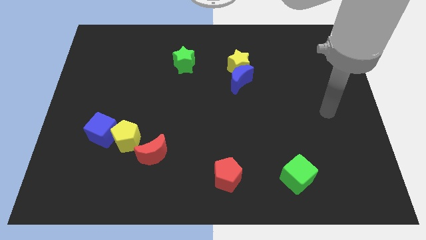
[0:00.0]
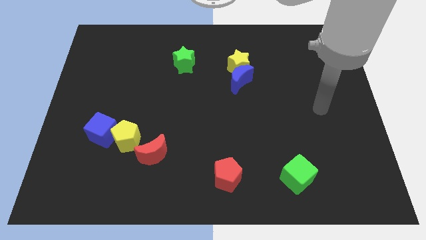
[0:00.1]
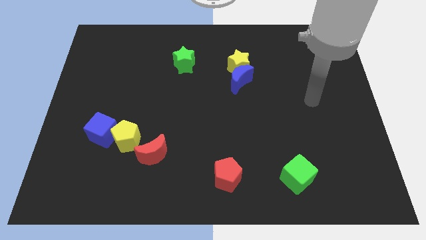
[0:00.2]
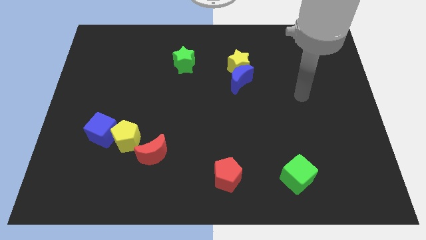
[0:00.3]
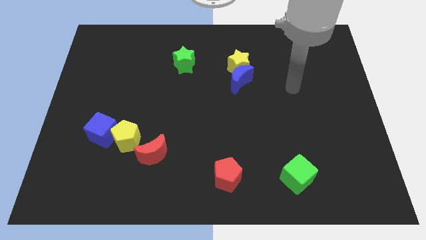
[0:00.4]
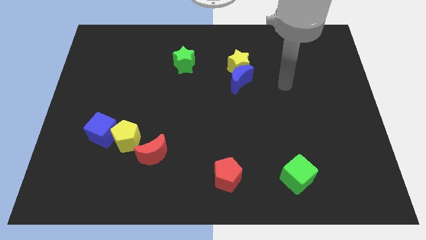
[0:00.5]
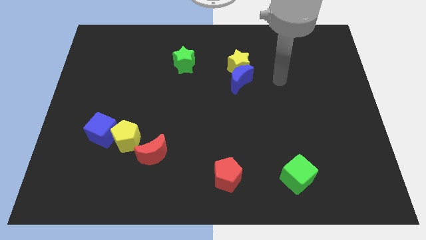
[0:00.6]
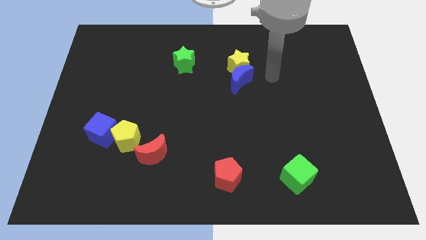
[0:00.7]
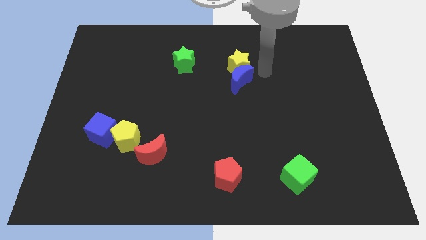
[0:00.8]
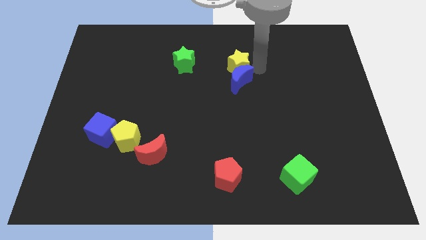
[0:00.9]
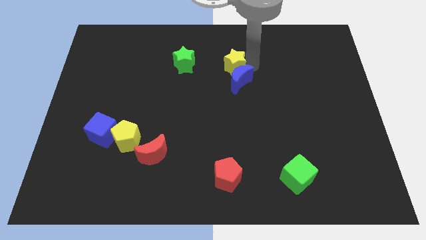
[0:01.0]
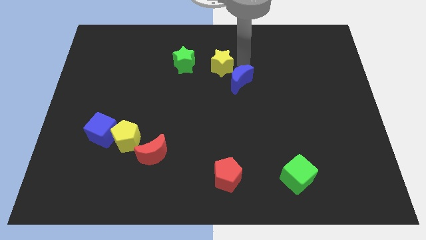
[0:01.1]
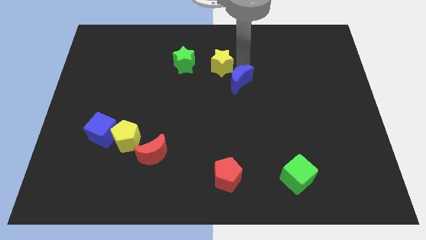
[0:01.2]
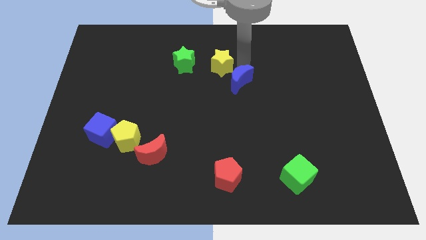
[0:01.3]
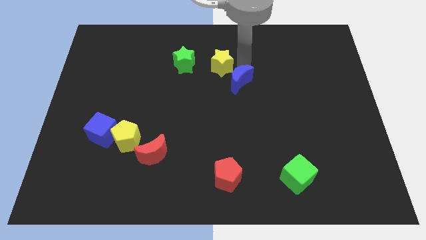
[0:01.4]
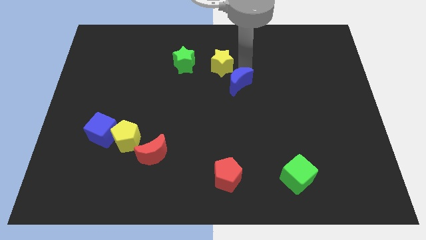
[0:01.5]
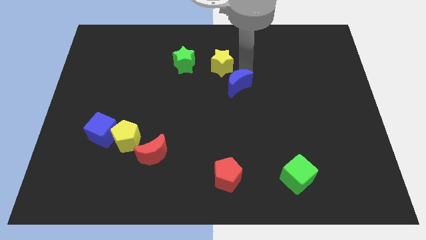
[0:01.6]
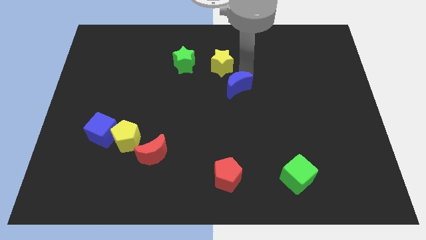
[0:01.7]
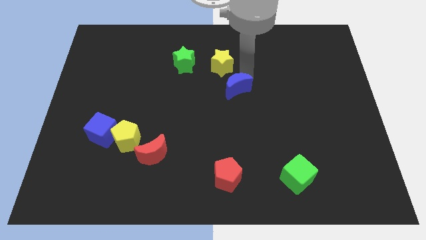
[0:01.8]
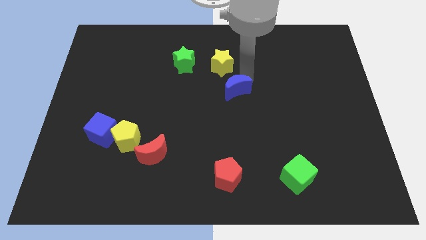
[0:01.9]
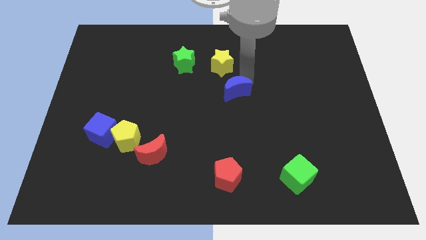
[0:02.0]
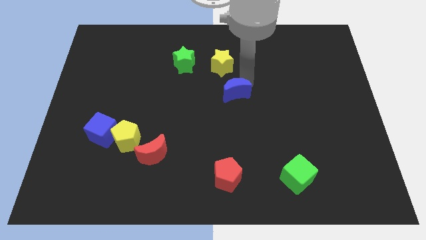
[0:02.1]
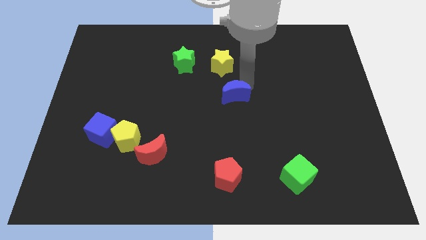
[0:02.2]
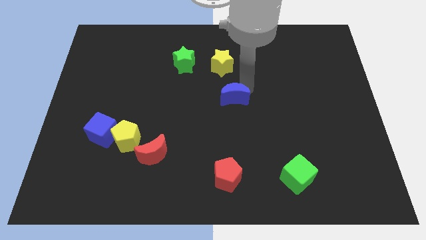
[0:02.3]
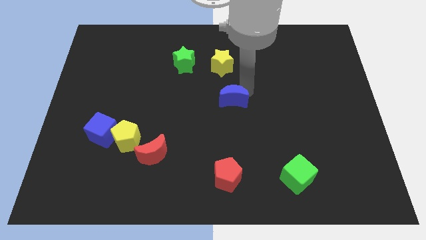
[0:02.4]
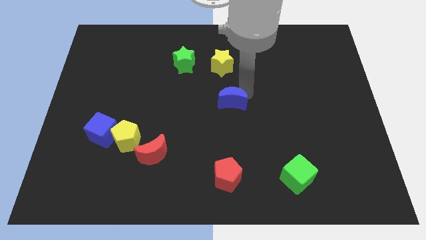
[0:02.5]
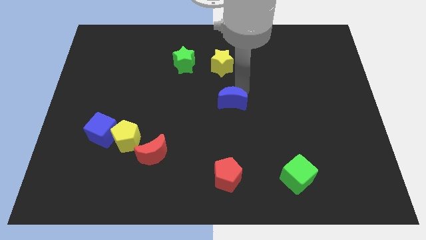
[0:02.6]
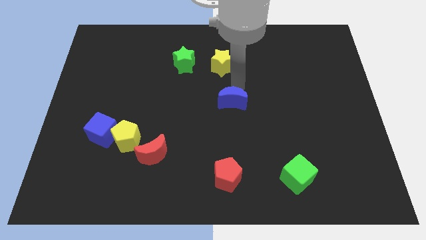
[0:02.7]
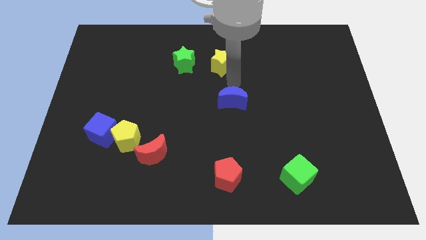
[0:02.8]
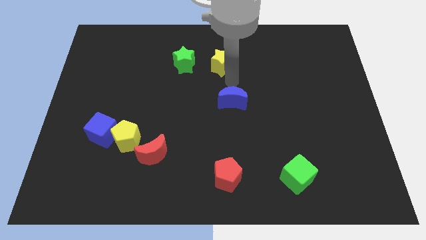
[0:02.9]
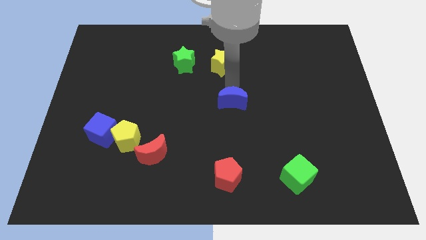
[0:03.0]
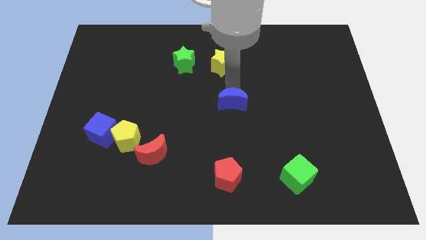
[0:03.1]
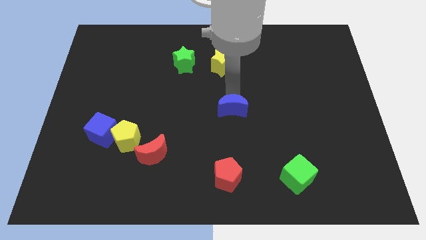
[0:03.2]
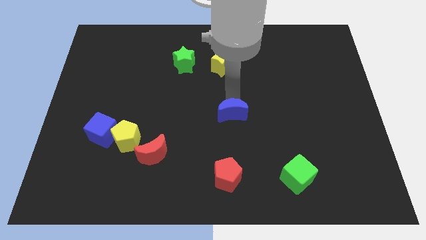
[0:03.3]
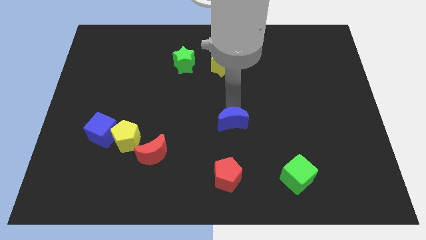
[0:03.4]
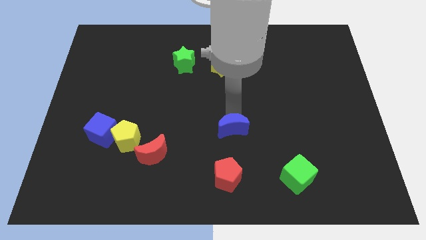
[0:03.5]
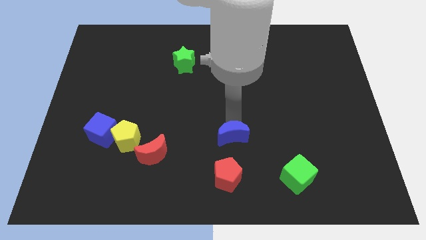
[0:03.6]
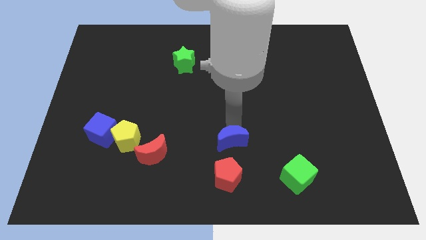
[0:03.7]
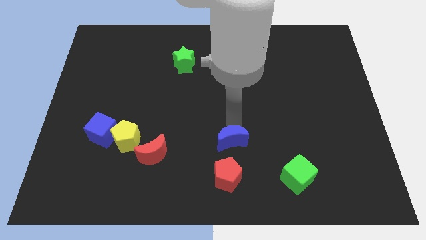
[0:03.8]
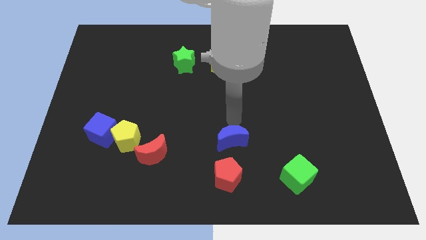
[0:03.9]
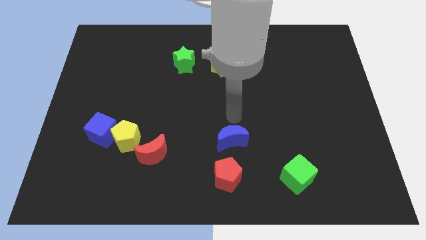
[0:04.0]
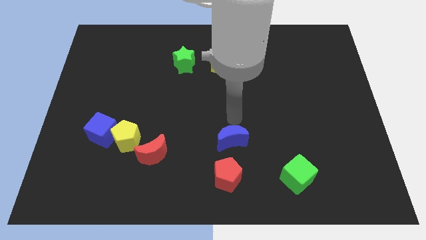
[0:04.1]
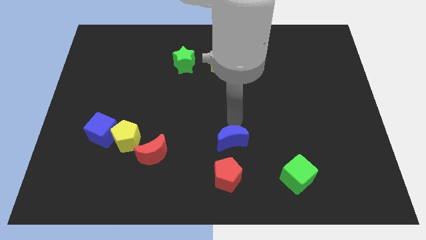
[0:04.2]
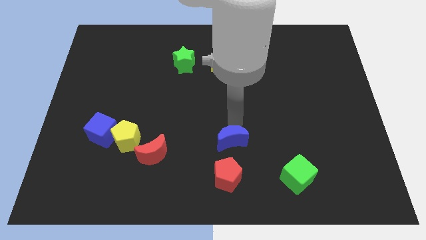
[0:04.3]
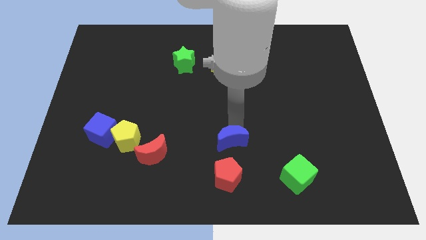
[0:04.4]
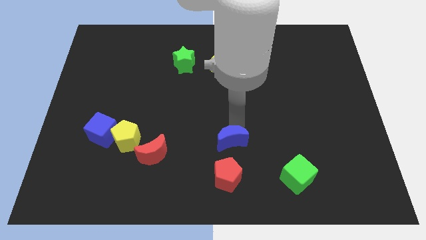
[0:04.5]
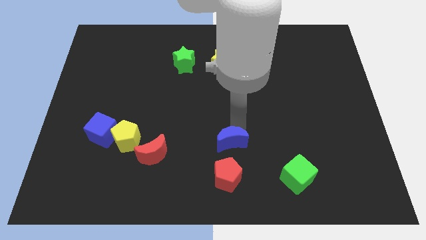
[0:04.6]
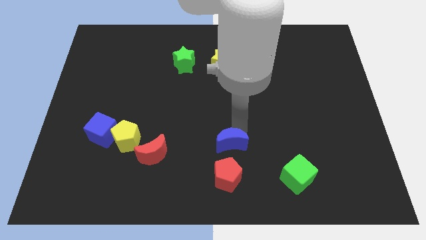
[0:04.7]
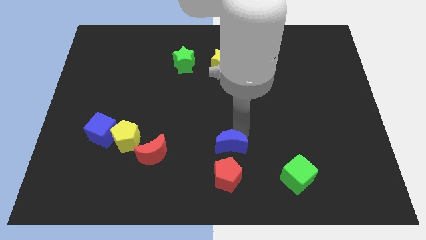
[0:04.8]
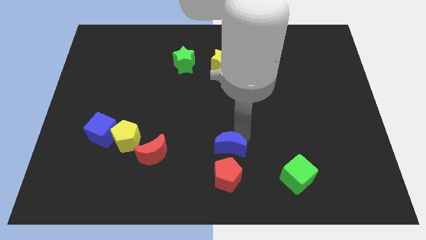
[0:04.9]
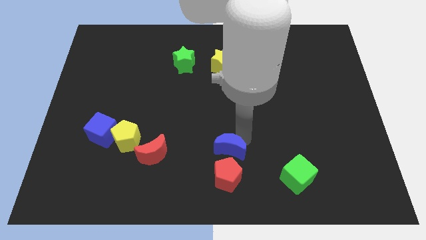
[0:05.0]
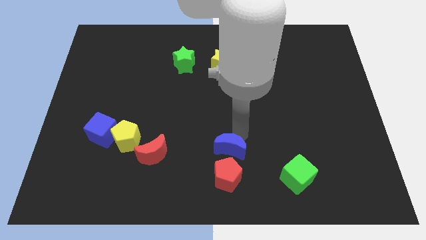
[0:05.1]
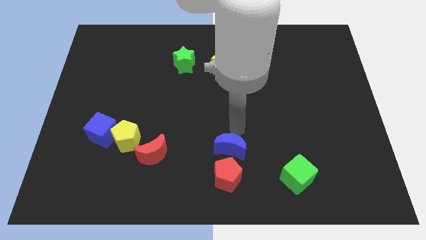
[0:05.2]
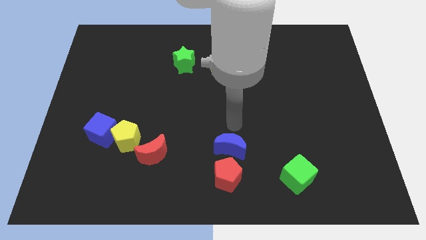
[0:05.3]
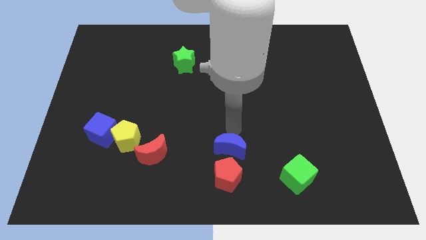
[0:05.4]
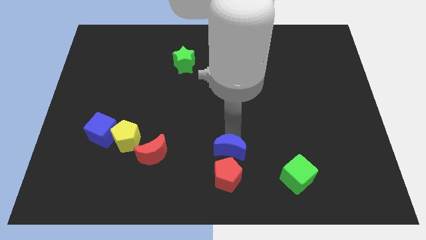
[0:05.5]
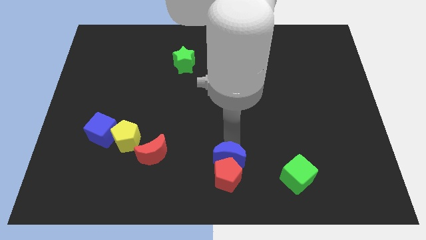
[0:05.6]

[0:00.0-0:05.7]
put the blue moon towards the red pentagon

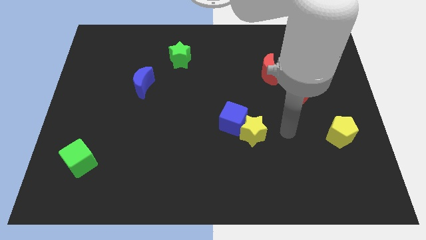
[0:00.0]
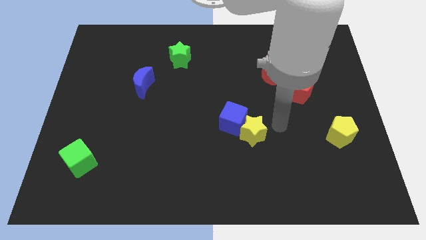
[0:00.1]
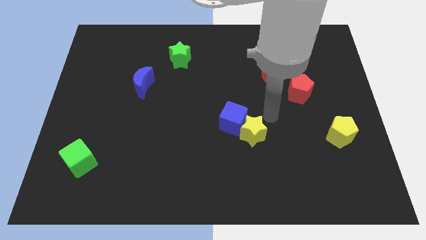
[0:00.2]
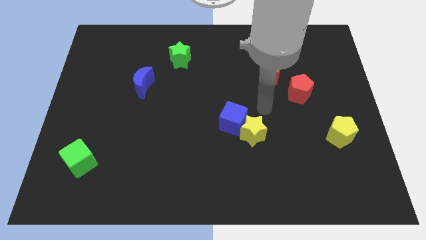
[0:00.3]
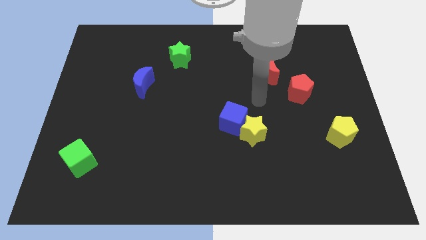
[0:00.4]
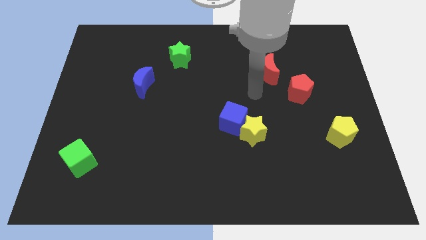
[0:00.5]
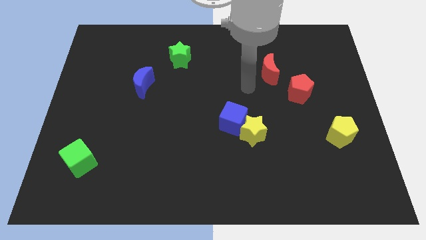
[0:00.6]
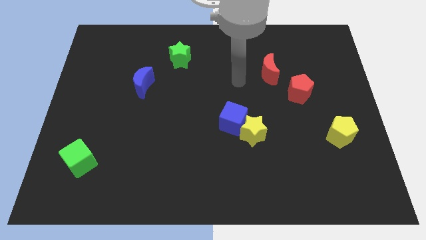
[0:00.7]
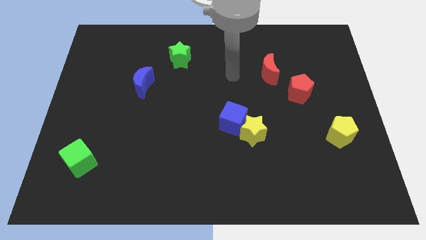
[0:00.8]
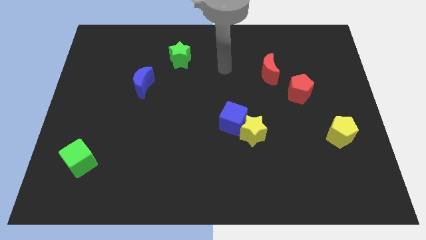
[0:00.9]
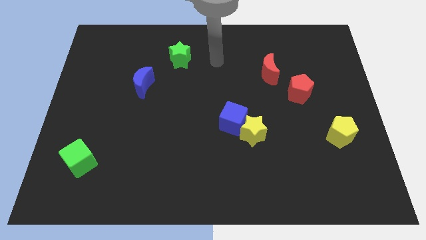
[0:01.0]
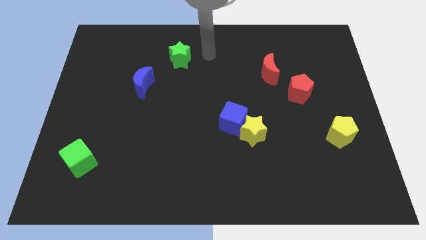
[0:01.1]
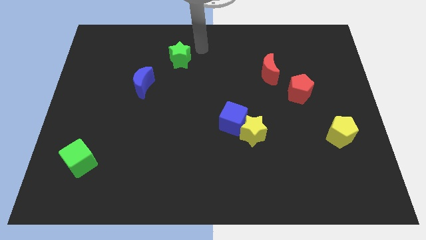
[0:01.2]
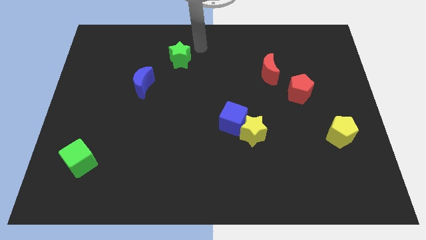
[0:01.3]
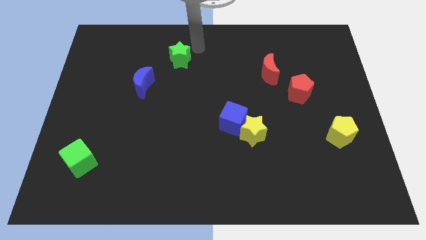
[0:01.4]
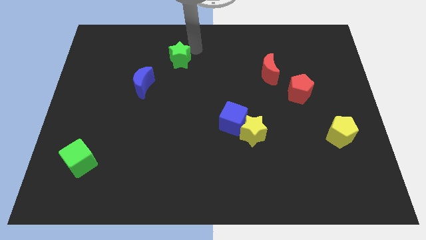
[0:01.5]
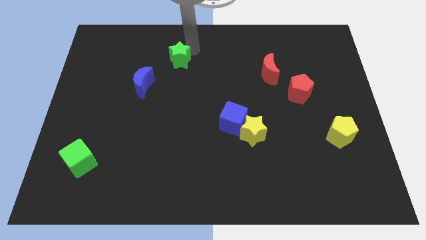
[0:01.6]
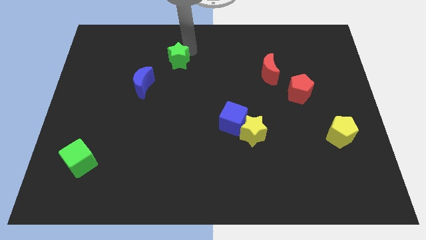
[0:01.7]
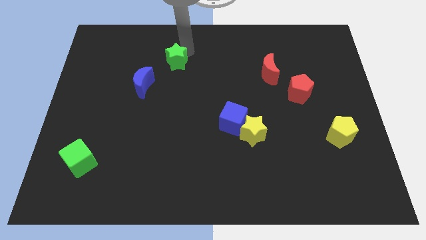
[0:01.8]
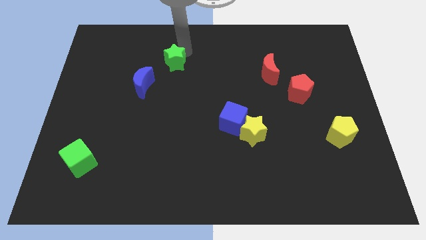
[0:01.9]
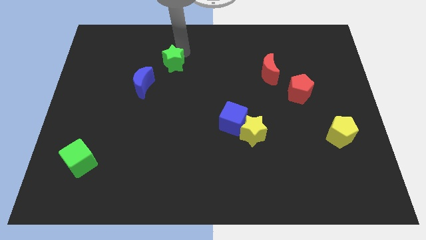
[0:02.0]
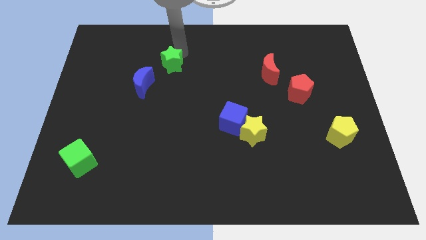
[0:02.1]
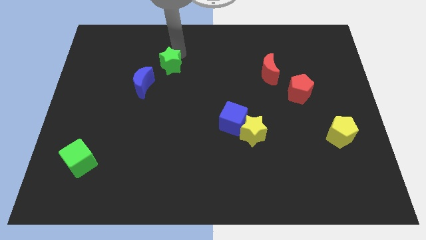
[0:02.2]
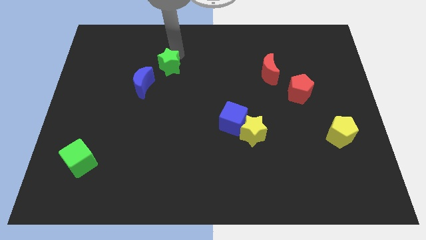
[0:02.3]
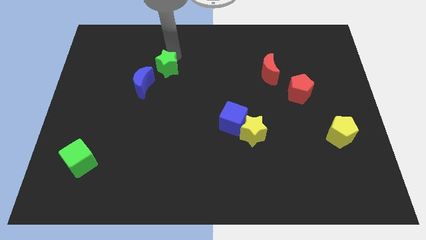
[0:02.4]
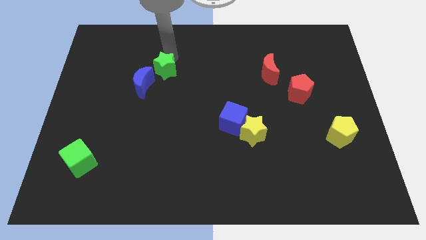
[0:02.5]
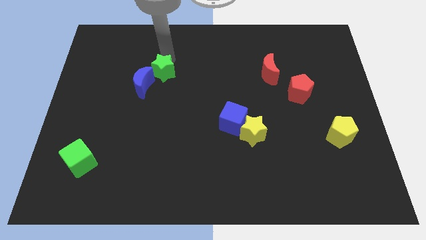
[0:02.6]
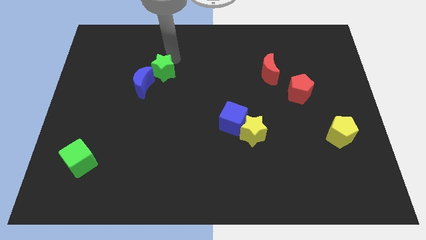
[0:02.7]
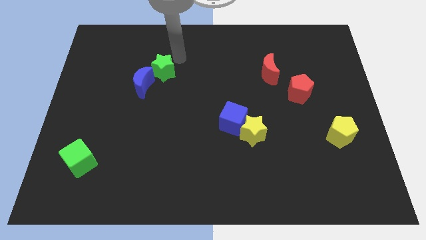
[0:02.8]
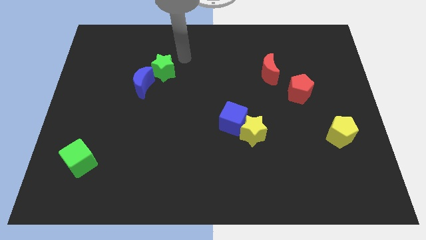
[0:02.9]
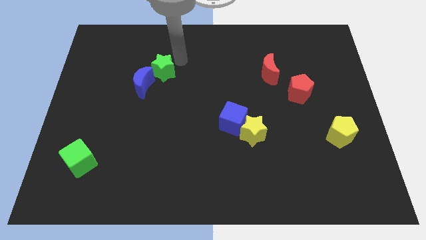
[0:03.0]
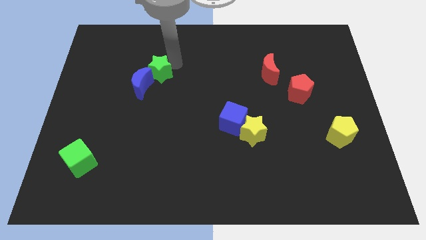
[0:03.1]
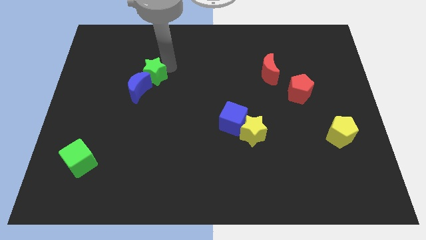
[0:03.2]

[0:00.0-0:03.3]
put the green star close to the blue moon
